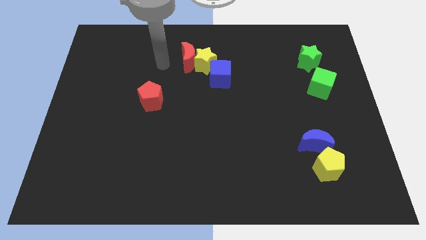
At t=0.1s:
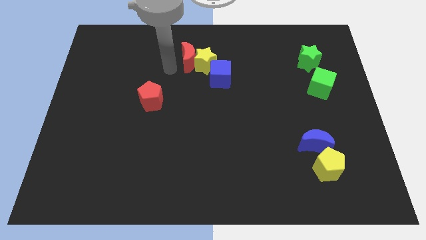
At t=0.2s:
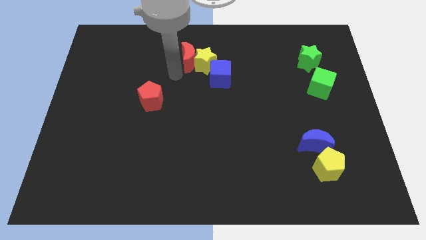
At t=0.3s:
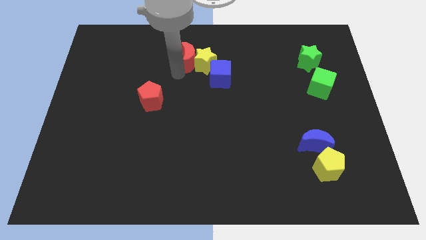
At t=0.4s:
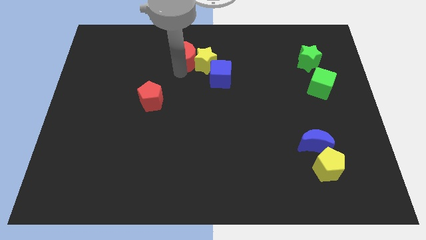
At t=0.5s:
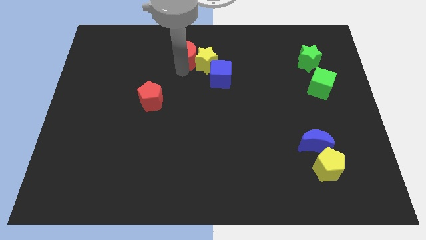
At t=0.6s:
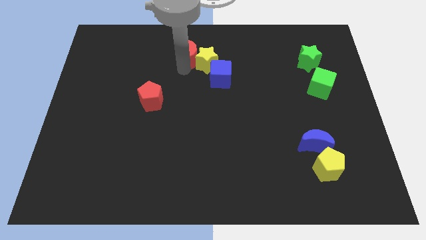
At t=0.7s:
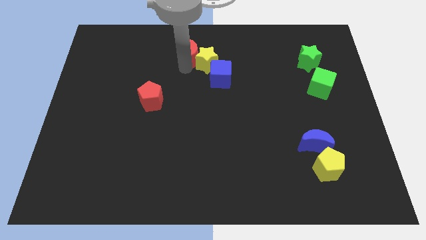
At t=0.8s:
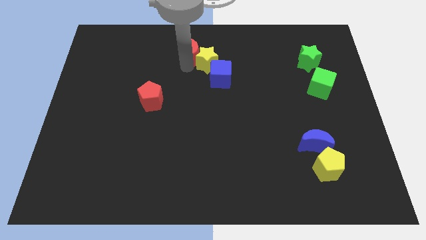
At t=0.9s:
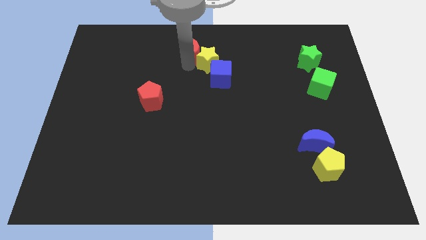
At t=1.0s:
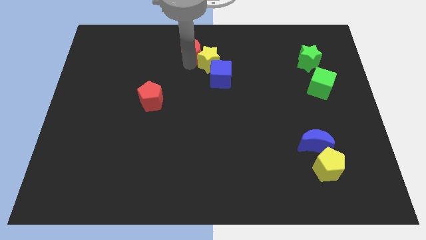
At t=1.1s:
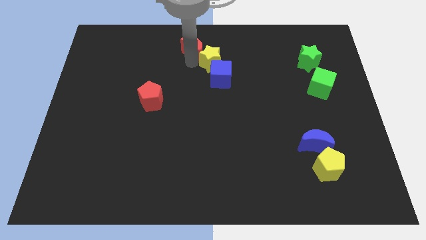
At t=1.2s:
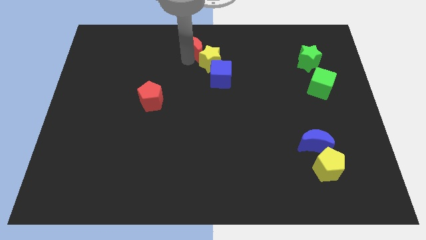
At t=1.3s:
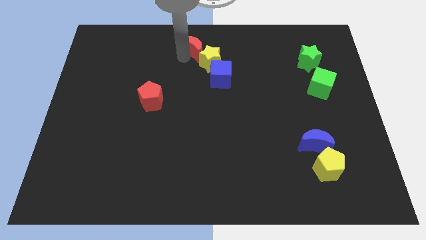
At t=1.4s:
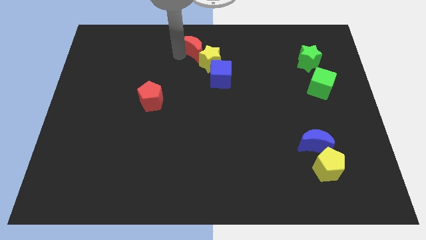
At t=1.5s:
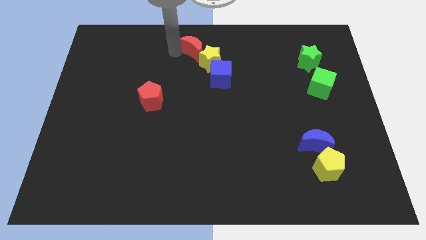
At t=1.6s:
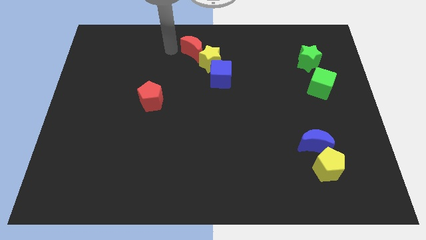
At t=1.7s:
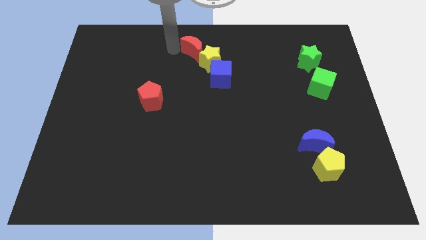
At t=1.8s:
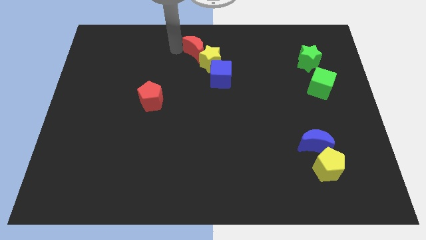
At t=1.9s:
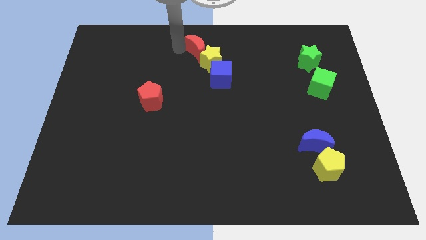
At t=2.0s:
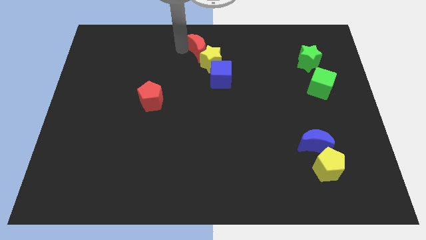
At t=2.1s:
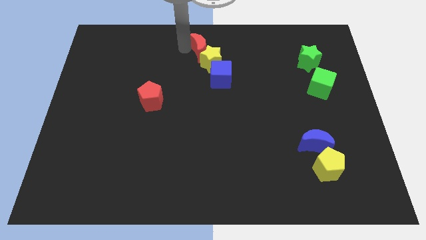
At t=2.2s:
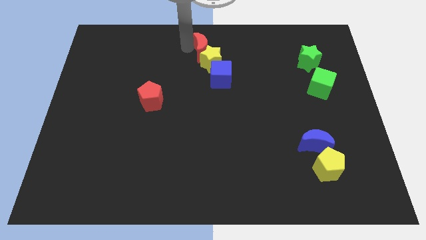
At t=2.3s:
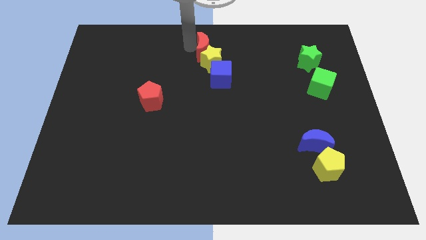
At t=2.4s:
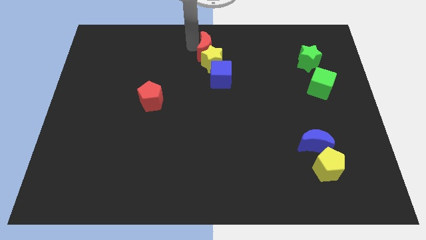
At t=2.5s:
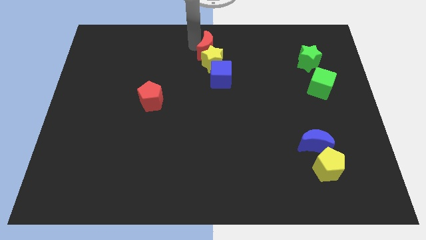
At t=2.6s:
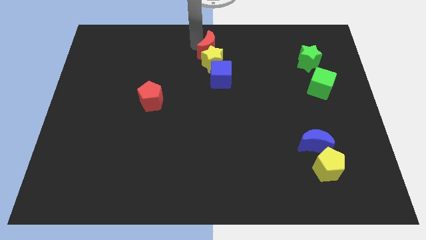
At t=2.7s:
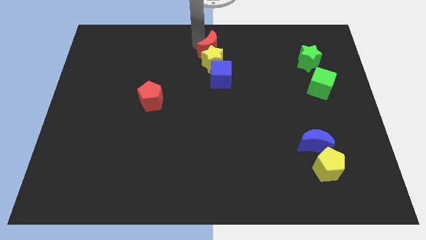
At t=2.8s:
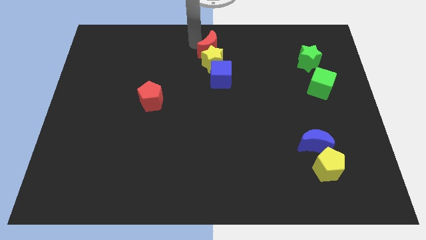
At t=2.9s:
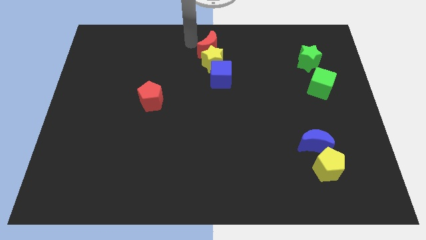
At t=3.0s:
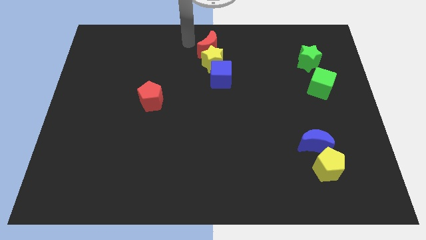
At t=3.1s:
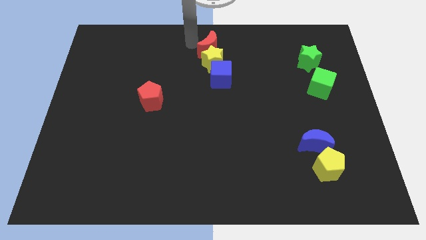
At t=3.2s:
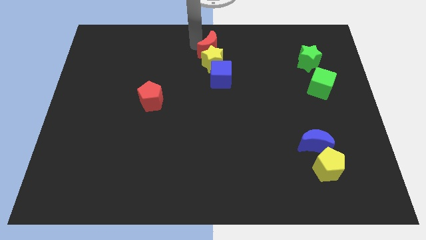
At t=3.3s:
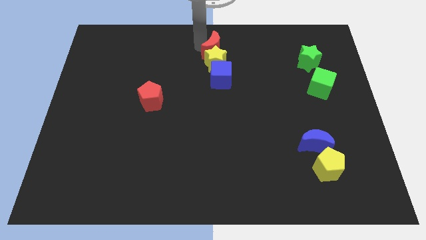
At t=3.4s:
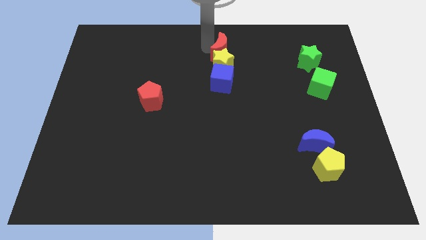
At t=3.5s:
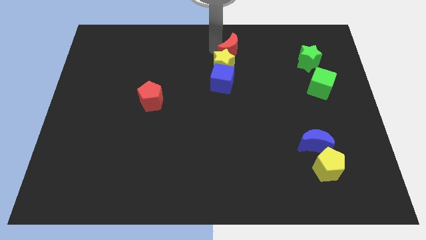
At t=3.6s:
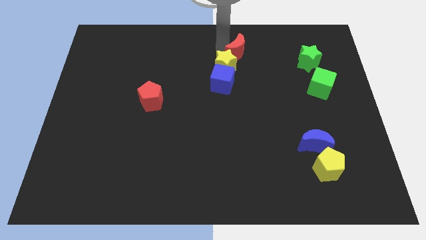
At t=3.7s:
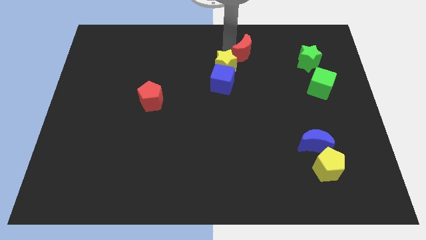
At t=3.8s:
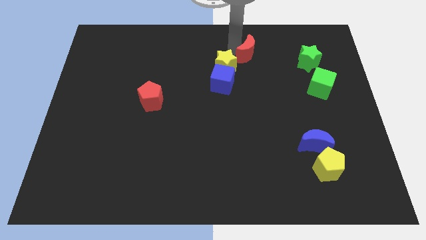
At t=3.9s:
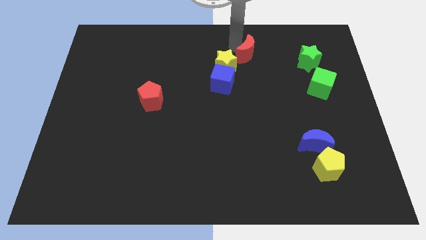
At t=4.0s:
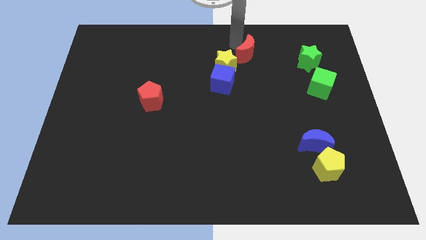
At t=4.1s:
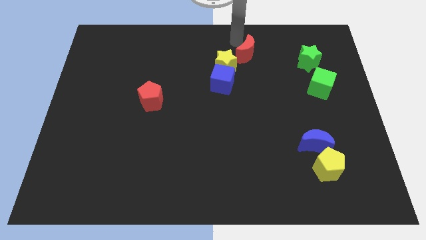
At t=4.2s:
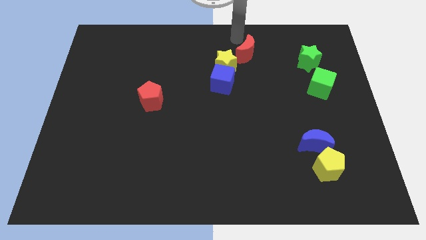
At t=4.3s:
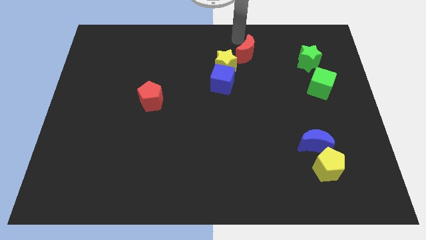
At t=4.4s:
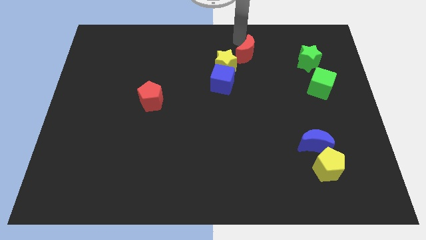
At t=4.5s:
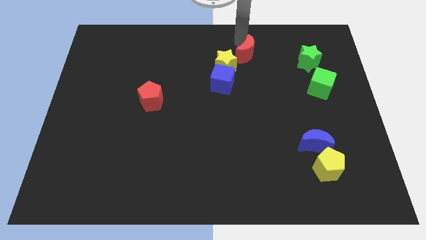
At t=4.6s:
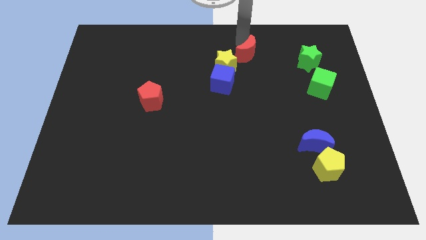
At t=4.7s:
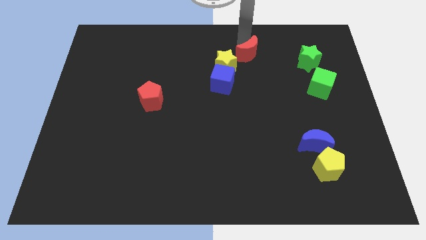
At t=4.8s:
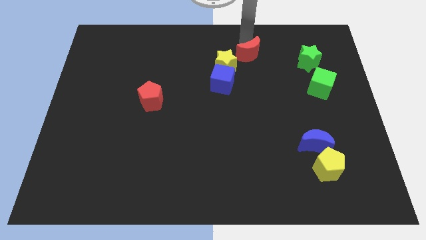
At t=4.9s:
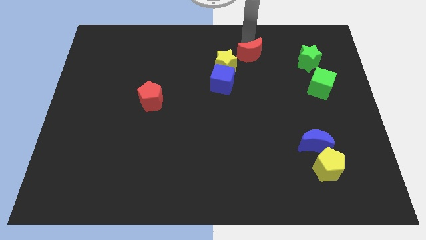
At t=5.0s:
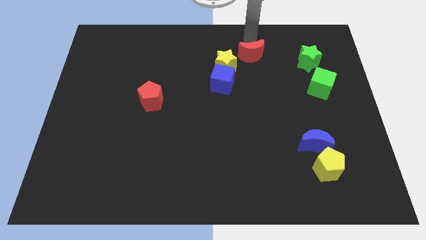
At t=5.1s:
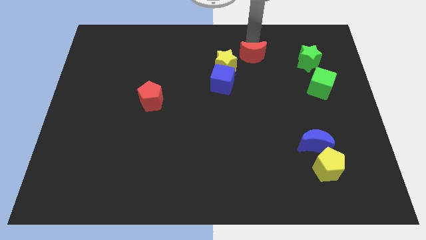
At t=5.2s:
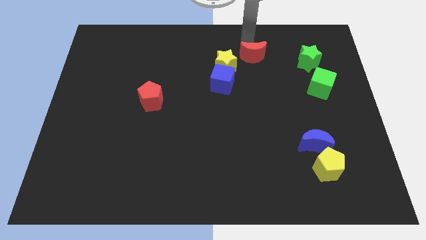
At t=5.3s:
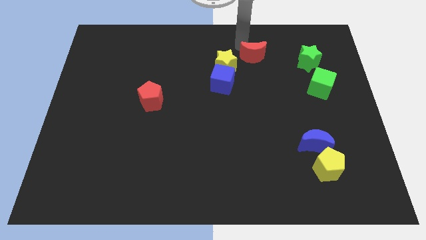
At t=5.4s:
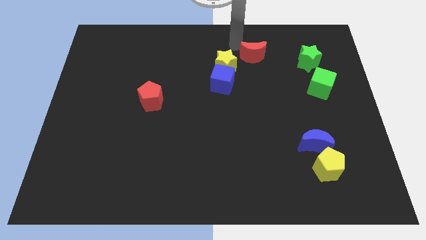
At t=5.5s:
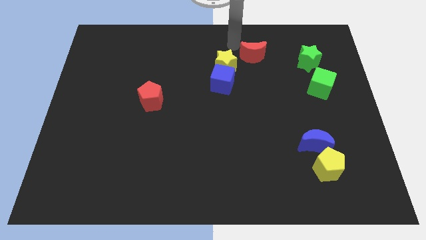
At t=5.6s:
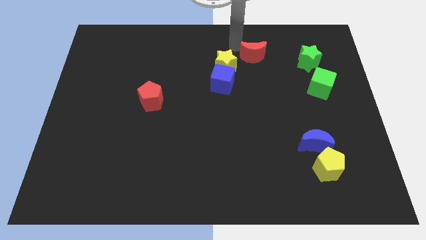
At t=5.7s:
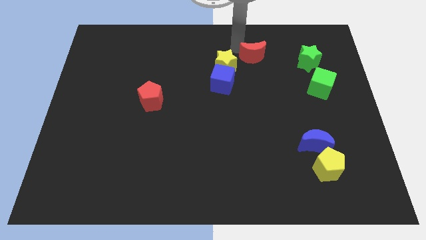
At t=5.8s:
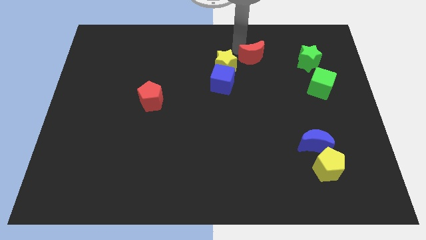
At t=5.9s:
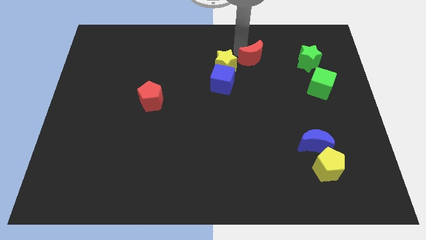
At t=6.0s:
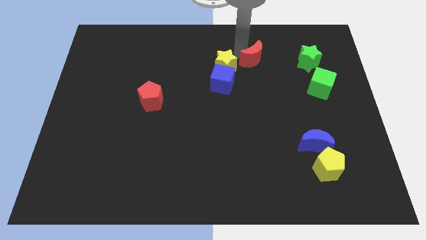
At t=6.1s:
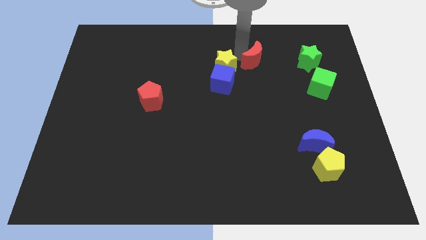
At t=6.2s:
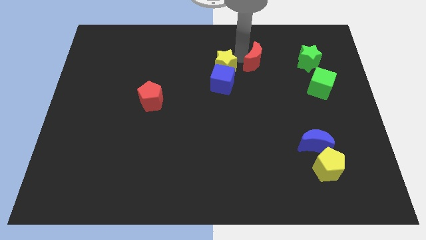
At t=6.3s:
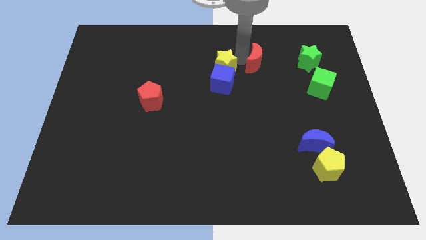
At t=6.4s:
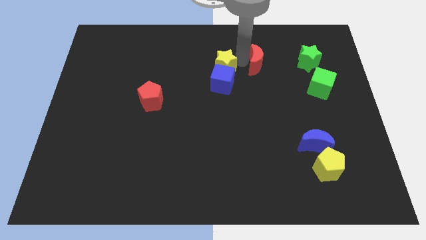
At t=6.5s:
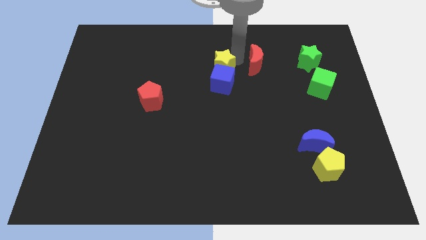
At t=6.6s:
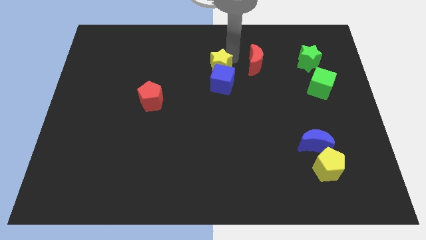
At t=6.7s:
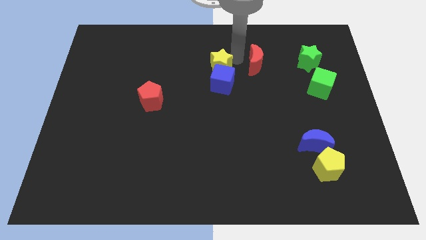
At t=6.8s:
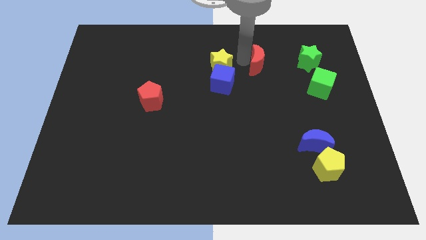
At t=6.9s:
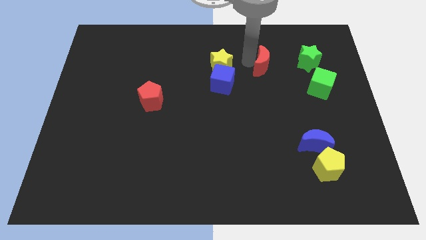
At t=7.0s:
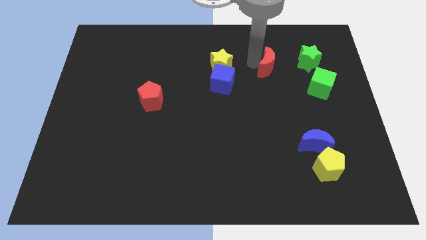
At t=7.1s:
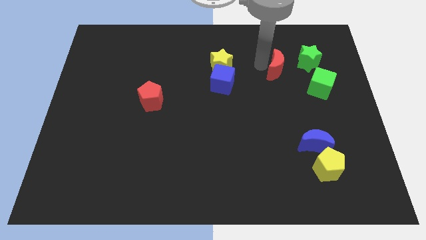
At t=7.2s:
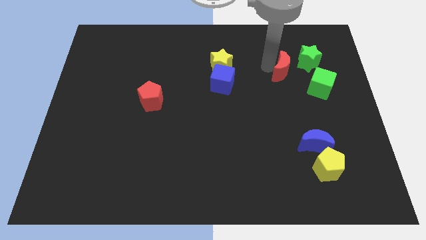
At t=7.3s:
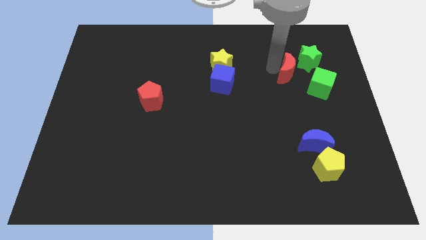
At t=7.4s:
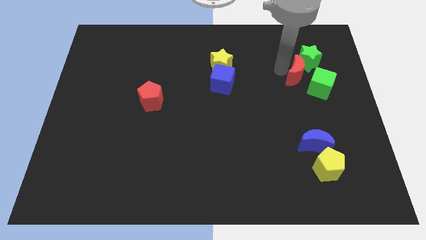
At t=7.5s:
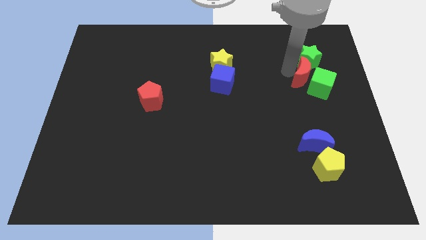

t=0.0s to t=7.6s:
slide the red moon towards the green cube

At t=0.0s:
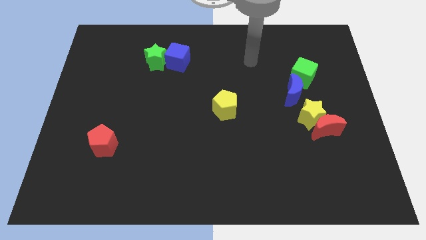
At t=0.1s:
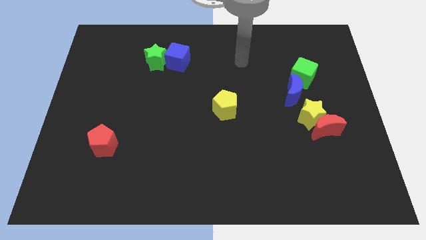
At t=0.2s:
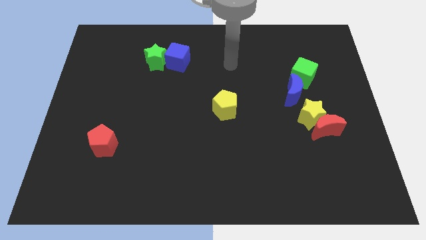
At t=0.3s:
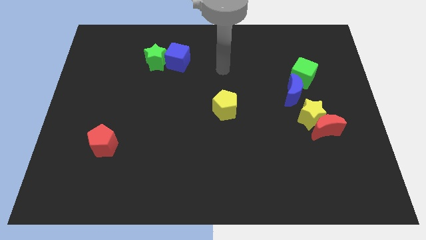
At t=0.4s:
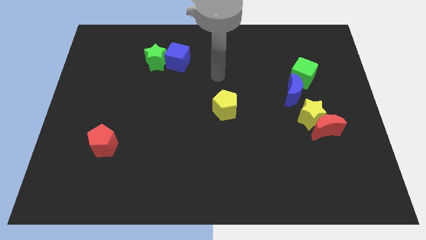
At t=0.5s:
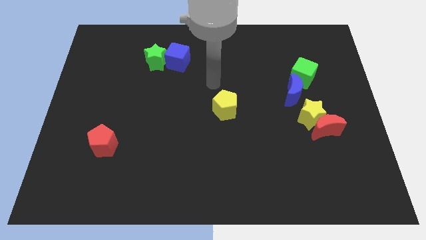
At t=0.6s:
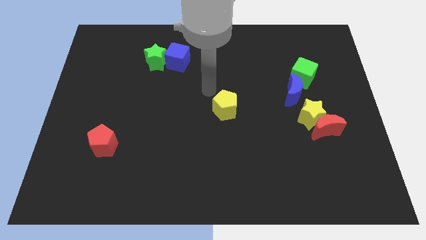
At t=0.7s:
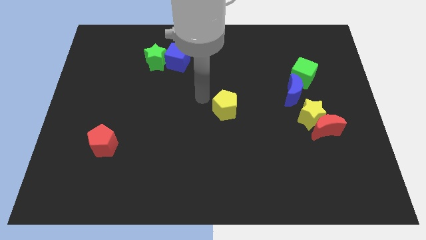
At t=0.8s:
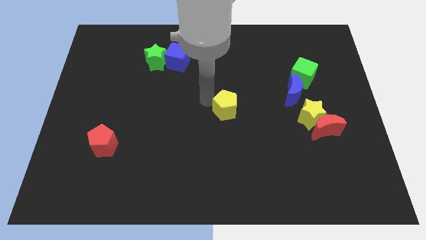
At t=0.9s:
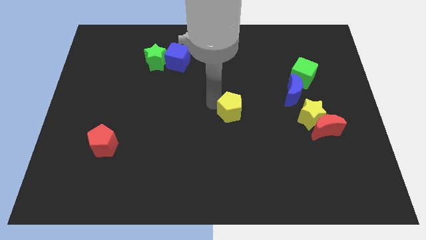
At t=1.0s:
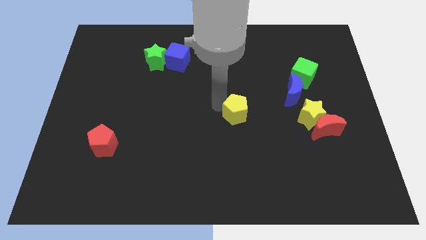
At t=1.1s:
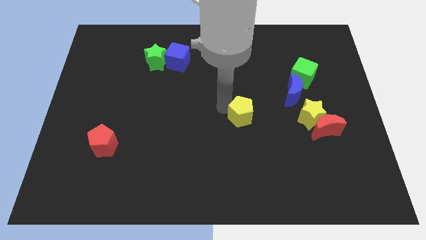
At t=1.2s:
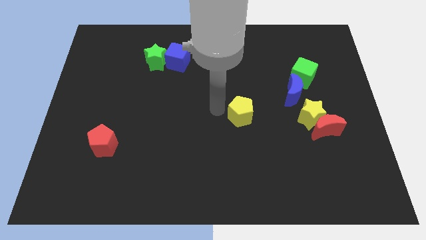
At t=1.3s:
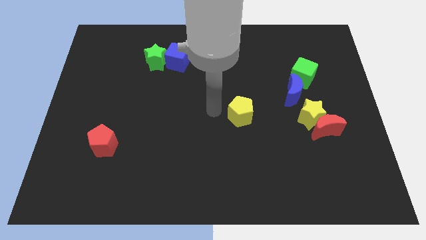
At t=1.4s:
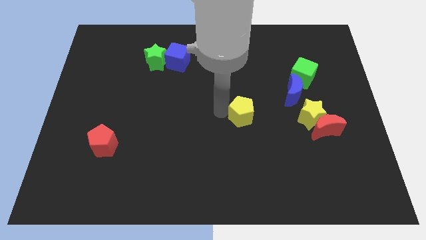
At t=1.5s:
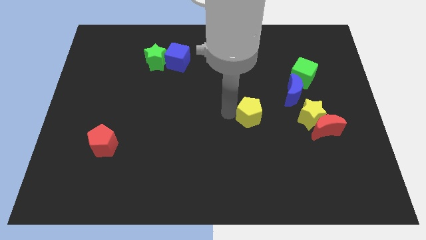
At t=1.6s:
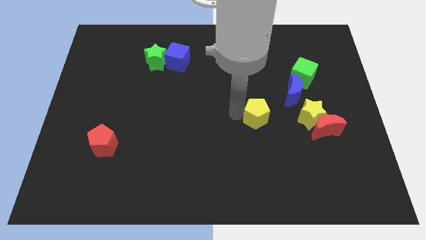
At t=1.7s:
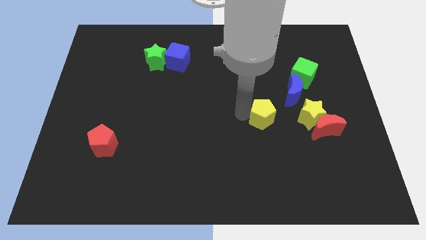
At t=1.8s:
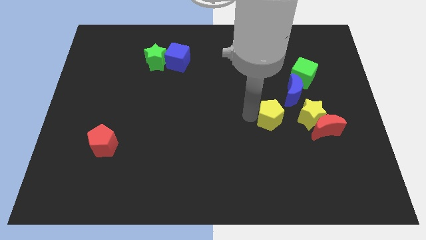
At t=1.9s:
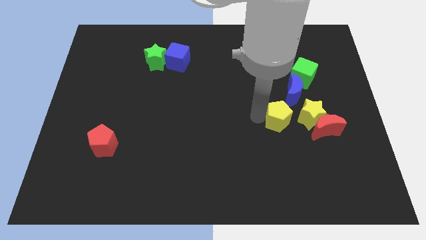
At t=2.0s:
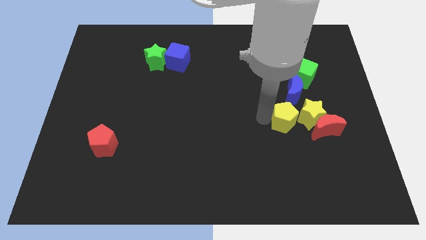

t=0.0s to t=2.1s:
slide the yellow pentagon close to the yellow star
